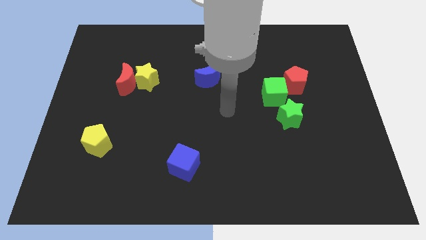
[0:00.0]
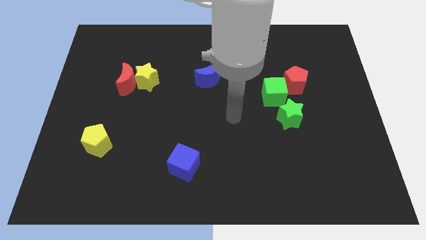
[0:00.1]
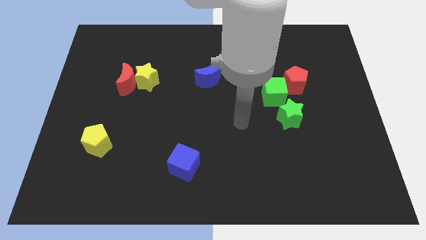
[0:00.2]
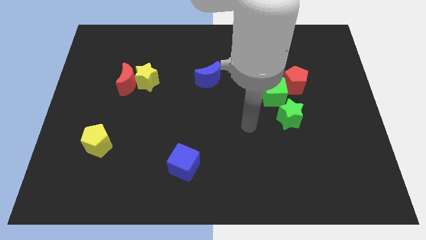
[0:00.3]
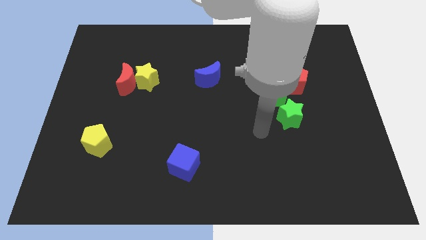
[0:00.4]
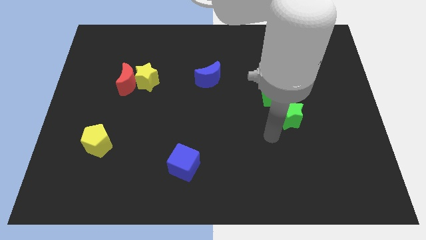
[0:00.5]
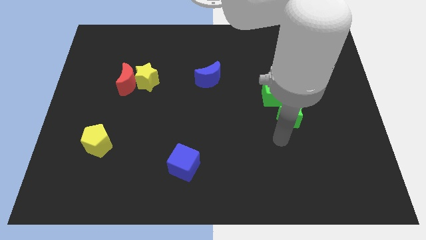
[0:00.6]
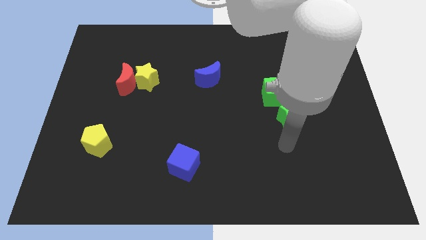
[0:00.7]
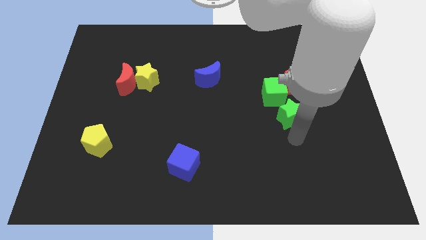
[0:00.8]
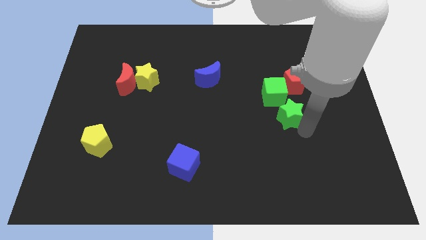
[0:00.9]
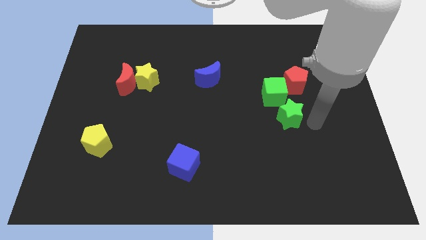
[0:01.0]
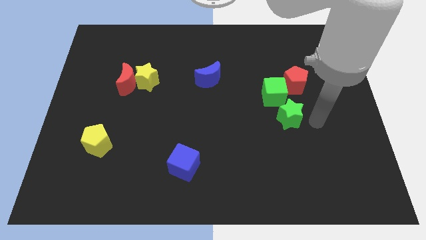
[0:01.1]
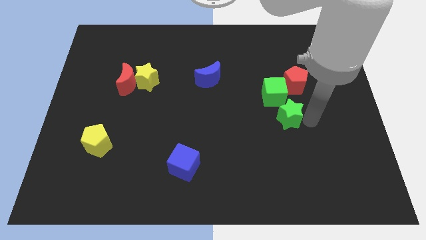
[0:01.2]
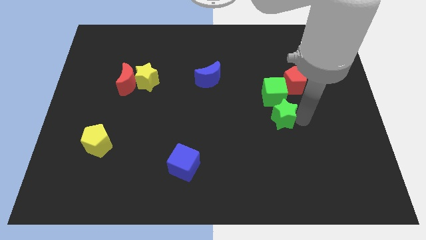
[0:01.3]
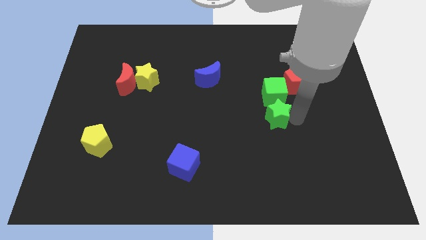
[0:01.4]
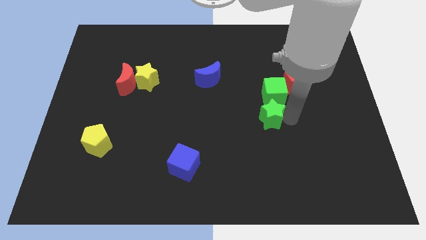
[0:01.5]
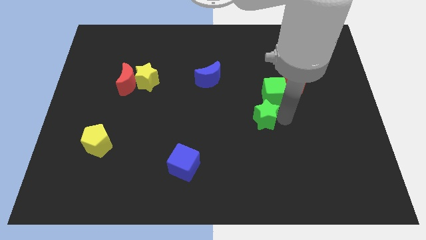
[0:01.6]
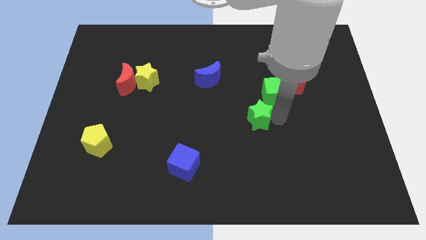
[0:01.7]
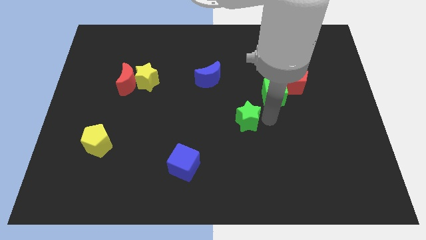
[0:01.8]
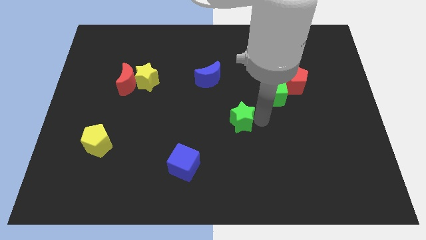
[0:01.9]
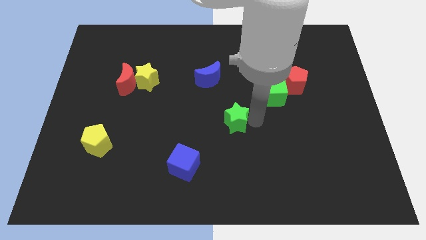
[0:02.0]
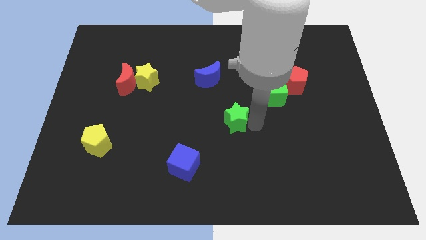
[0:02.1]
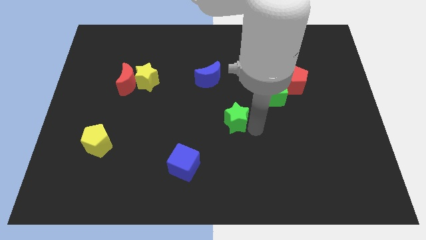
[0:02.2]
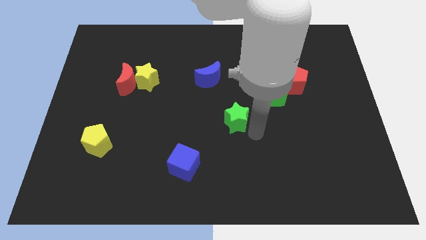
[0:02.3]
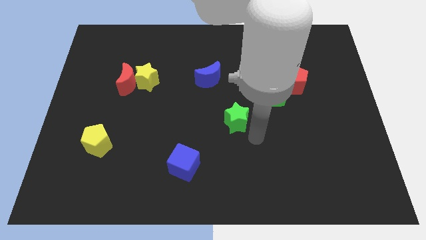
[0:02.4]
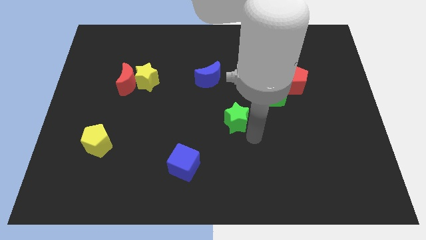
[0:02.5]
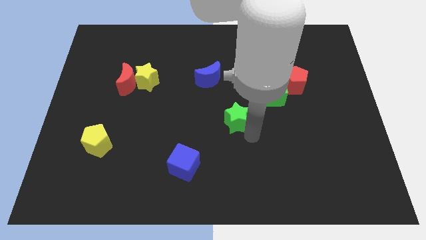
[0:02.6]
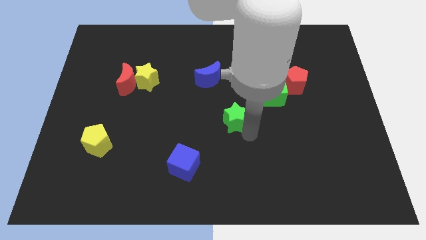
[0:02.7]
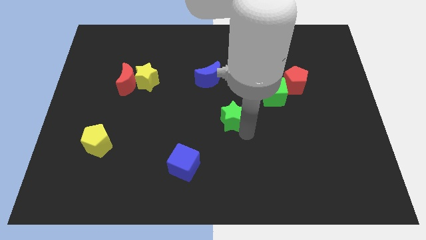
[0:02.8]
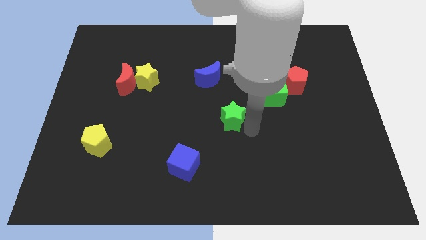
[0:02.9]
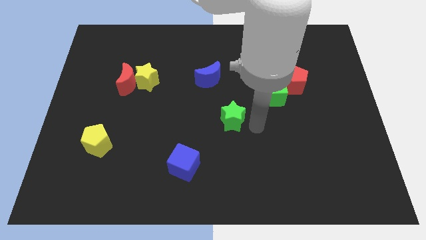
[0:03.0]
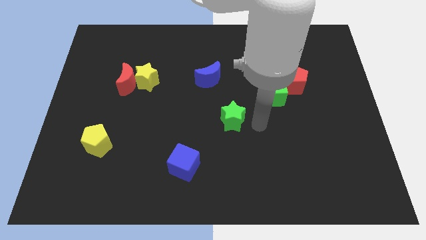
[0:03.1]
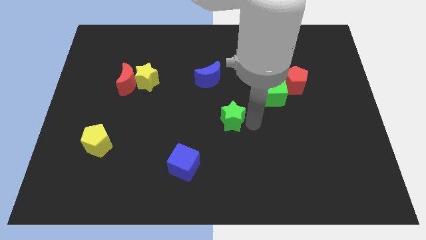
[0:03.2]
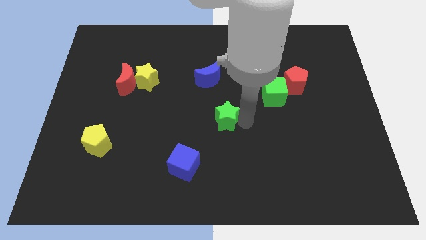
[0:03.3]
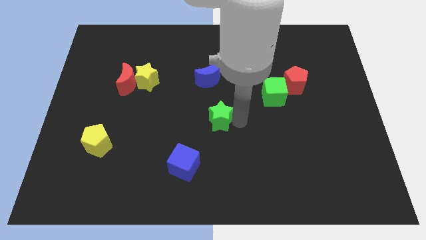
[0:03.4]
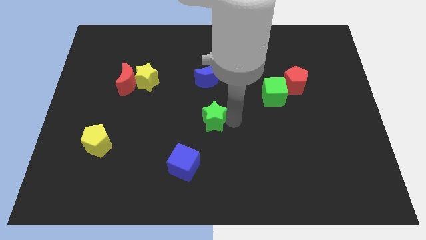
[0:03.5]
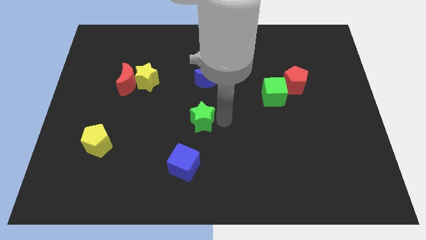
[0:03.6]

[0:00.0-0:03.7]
move the green star to the left

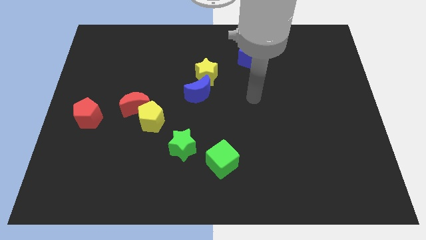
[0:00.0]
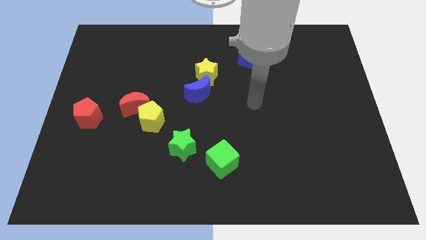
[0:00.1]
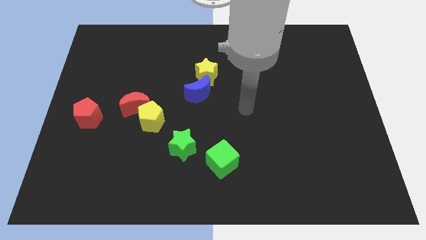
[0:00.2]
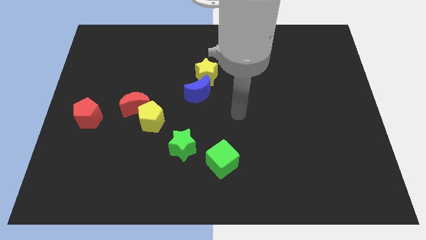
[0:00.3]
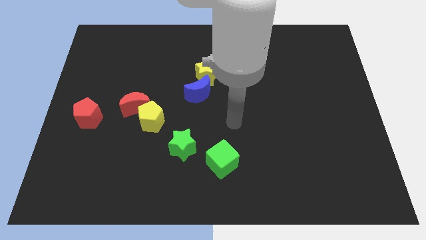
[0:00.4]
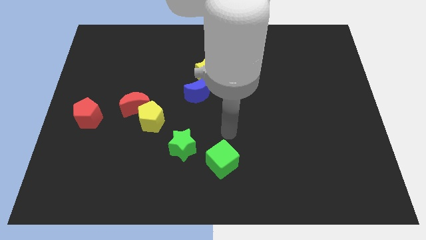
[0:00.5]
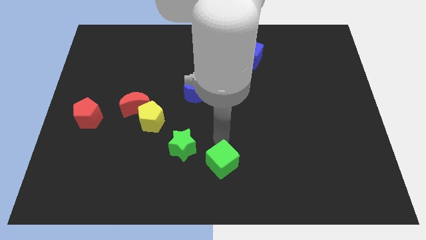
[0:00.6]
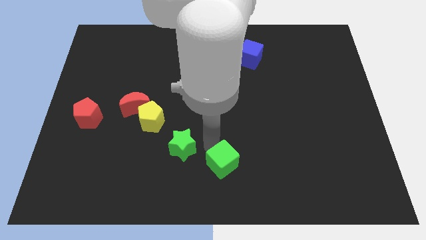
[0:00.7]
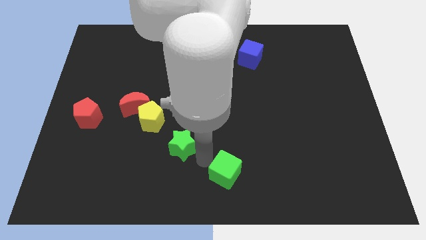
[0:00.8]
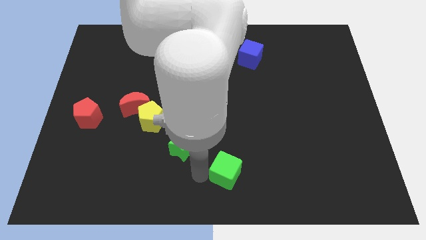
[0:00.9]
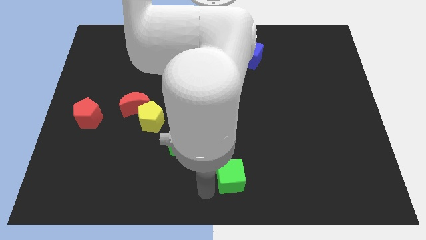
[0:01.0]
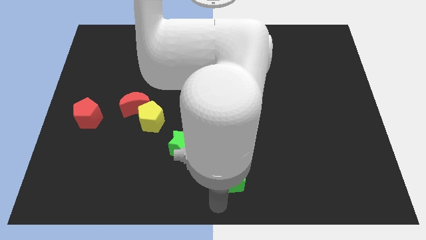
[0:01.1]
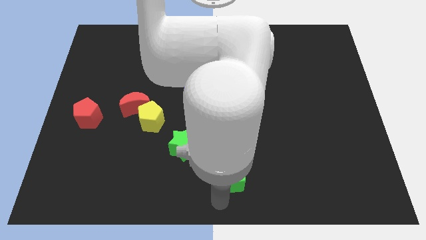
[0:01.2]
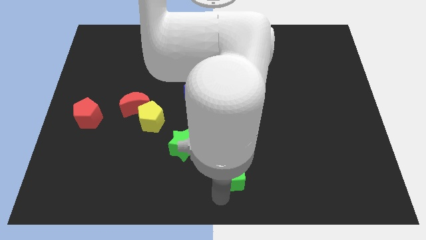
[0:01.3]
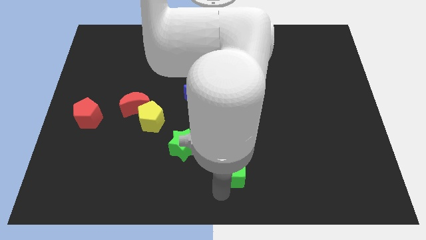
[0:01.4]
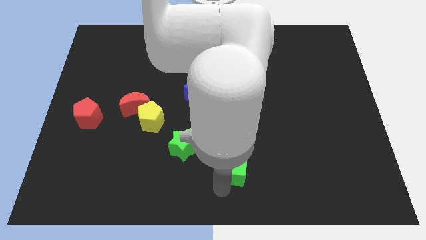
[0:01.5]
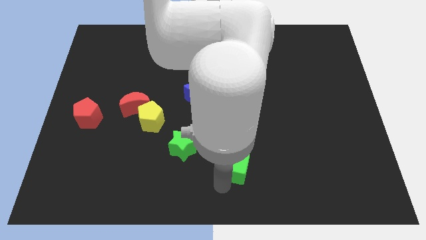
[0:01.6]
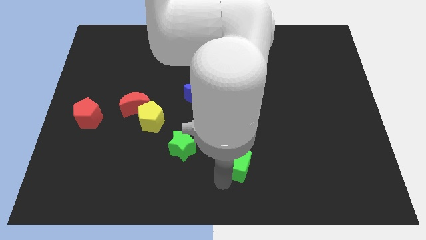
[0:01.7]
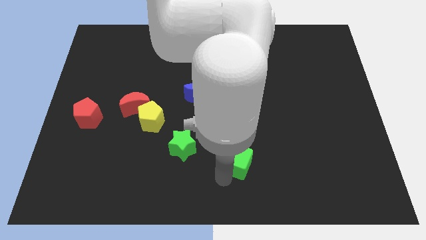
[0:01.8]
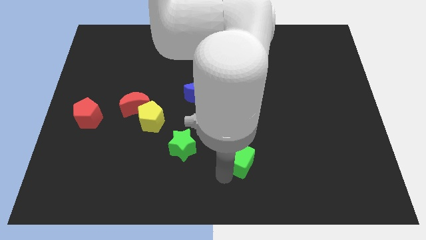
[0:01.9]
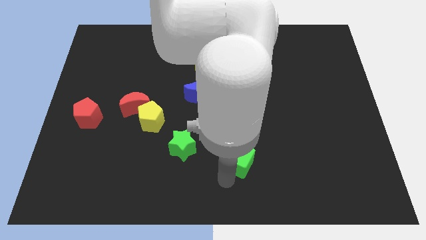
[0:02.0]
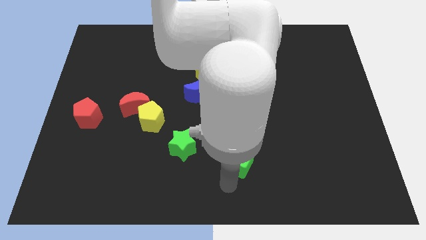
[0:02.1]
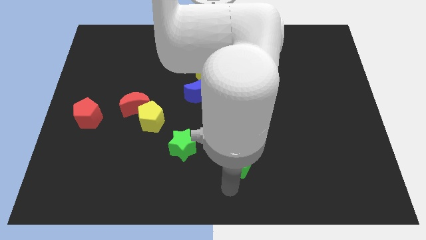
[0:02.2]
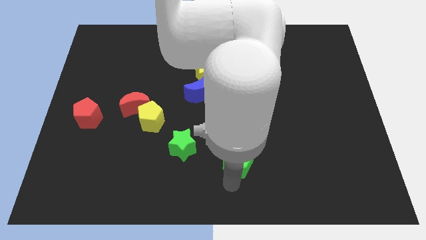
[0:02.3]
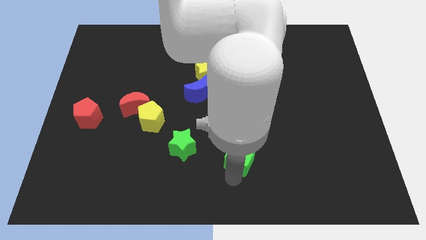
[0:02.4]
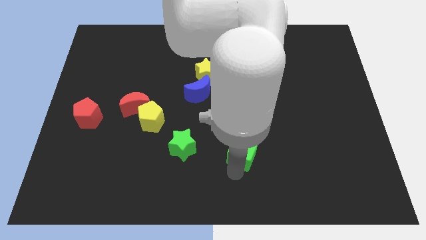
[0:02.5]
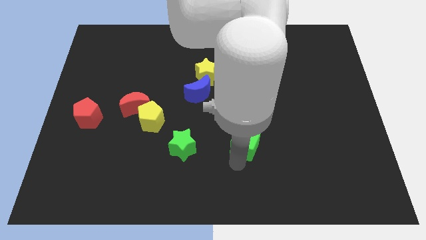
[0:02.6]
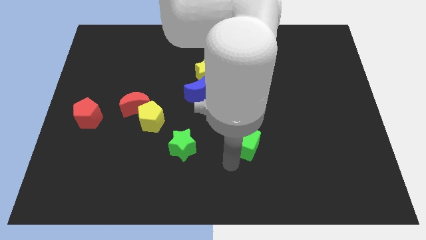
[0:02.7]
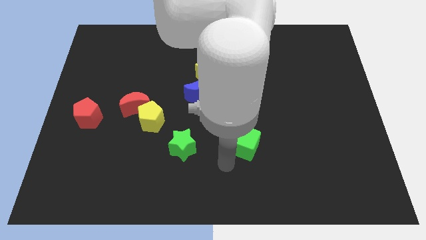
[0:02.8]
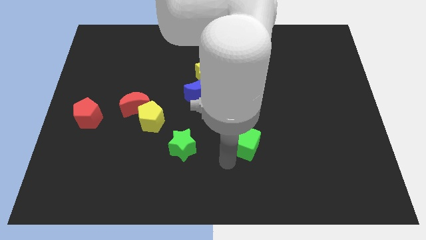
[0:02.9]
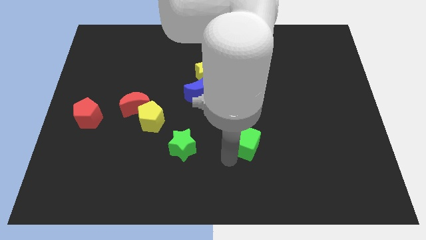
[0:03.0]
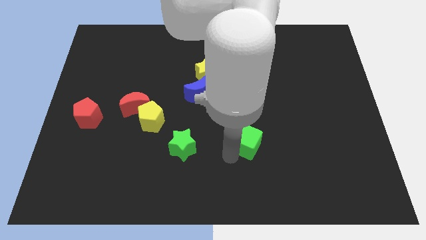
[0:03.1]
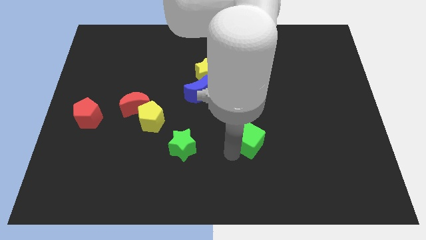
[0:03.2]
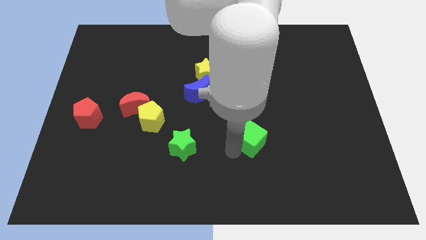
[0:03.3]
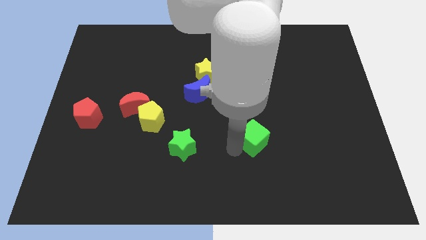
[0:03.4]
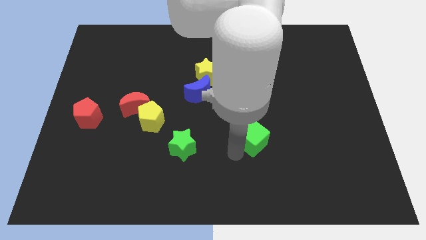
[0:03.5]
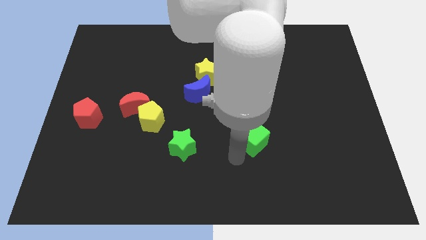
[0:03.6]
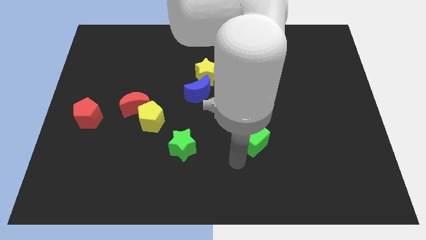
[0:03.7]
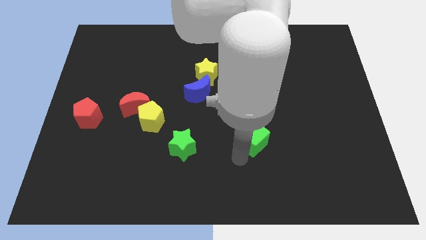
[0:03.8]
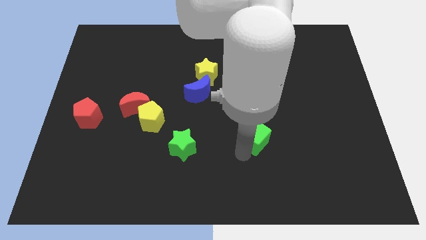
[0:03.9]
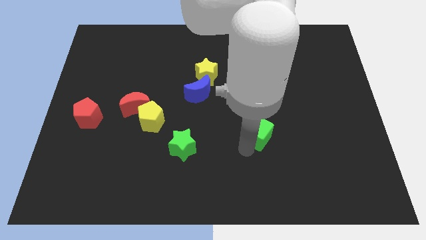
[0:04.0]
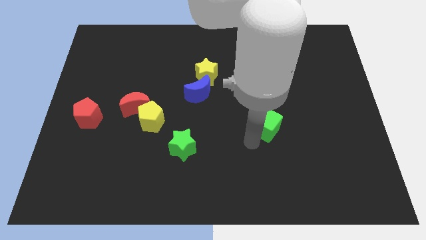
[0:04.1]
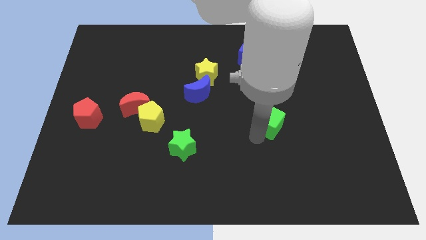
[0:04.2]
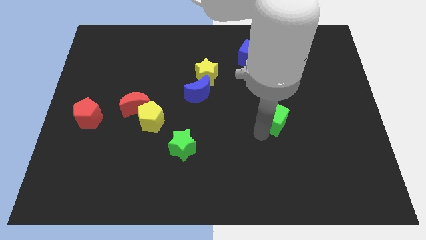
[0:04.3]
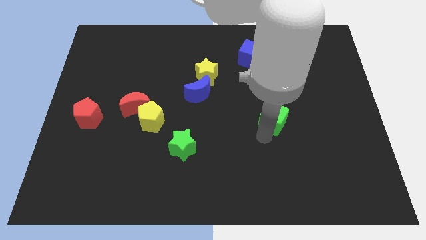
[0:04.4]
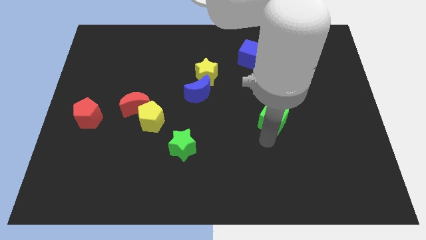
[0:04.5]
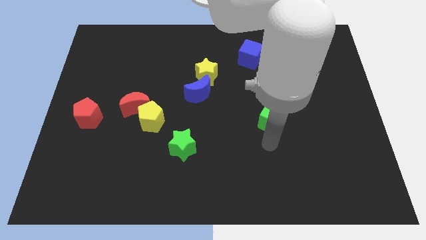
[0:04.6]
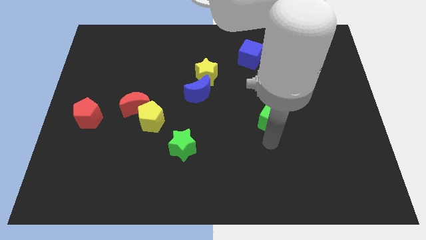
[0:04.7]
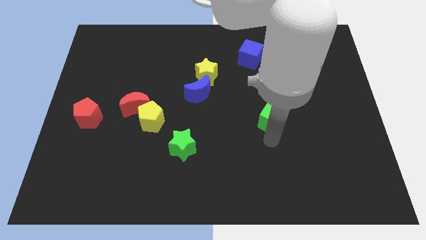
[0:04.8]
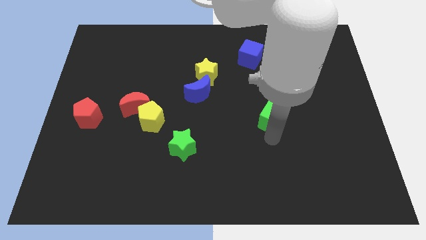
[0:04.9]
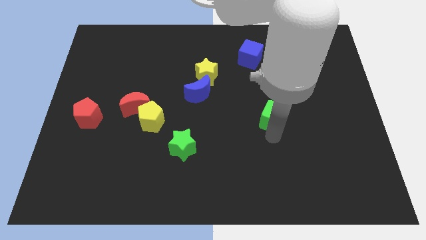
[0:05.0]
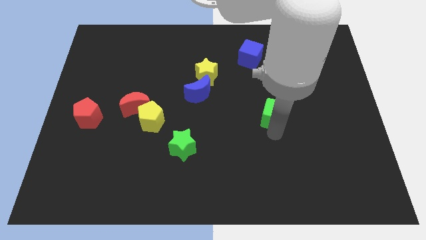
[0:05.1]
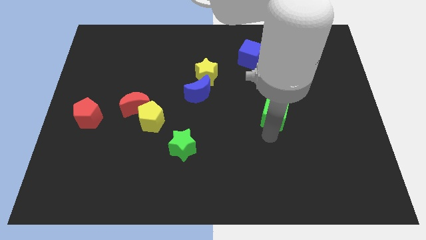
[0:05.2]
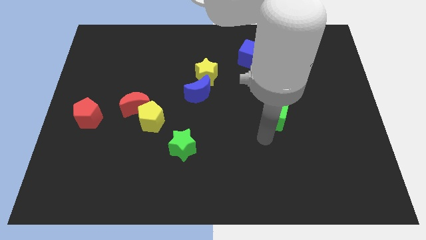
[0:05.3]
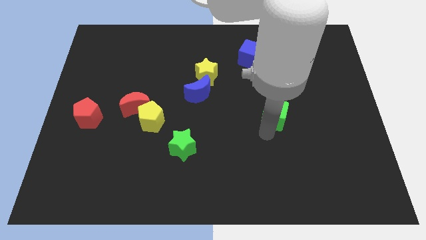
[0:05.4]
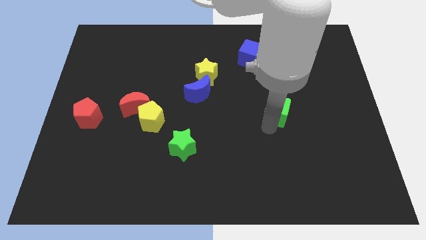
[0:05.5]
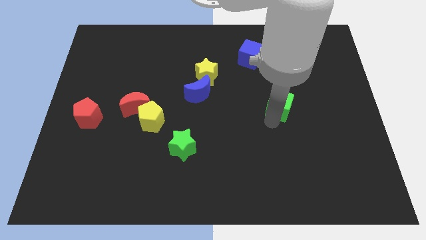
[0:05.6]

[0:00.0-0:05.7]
slide the green cube up and to the right diagonally
